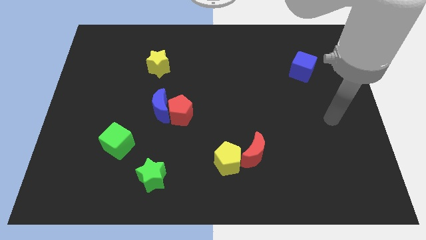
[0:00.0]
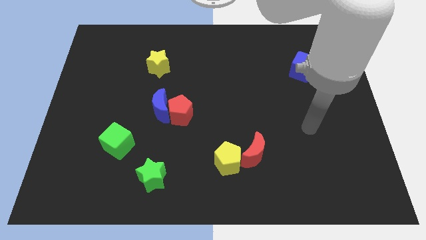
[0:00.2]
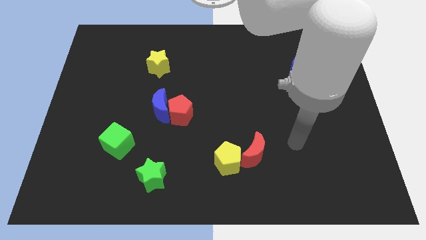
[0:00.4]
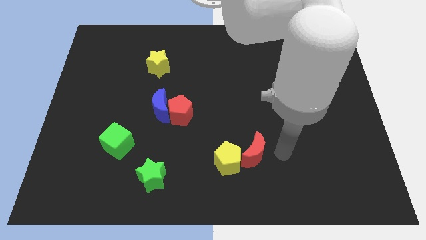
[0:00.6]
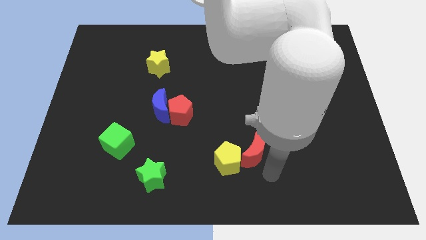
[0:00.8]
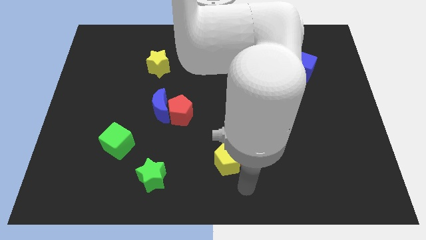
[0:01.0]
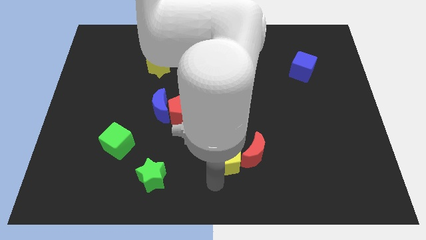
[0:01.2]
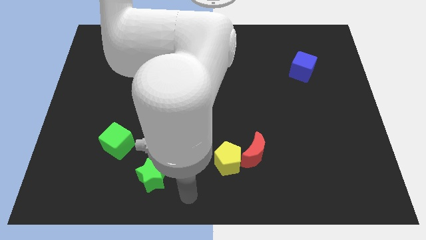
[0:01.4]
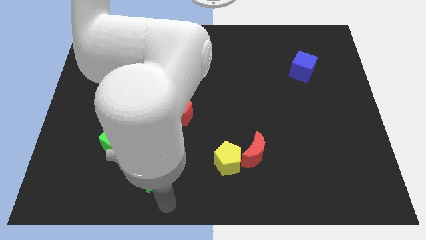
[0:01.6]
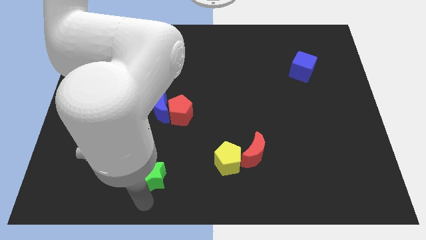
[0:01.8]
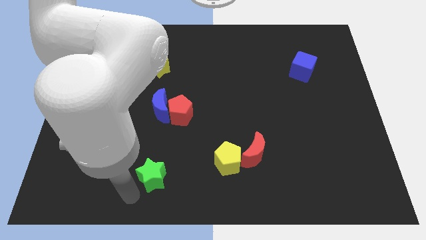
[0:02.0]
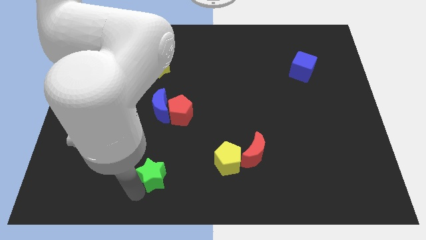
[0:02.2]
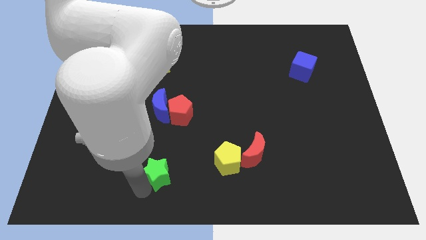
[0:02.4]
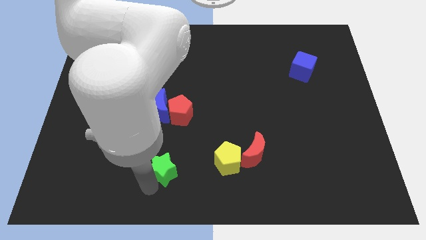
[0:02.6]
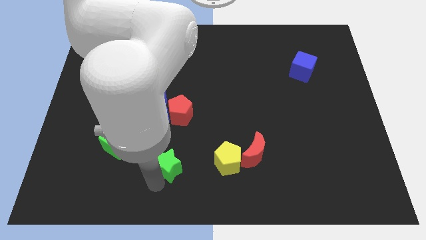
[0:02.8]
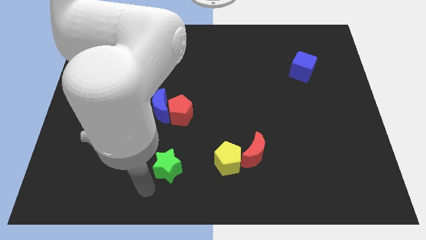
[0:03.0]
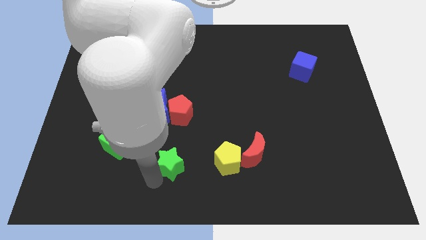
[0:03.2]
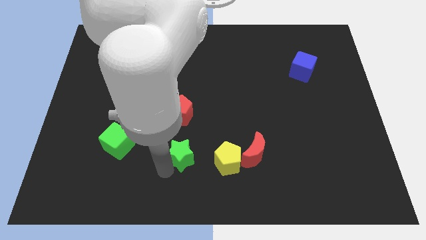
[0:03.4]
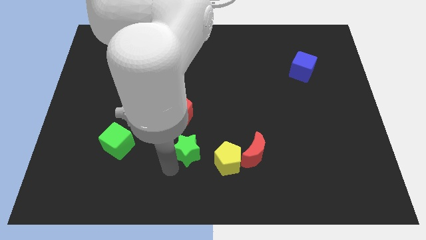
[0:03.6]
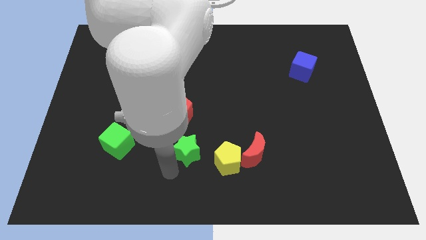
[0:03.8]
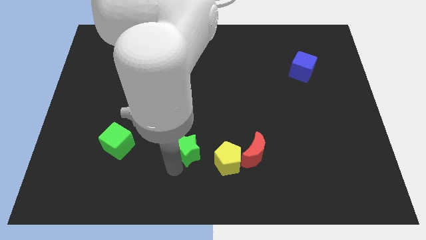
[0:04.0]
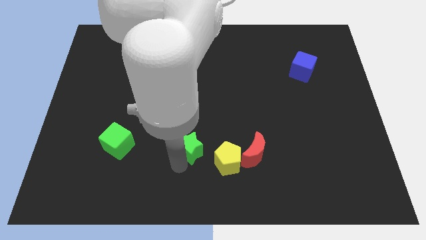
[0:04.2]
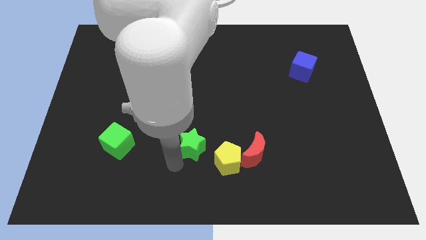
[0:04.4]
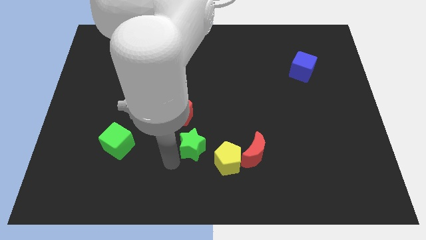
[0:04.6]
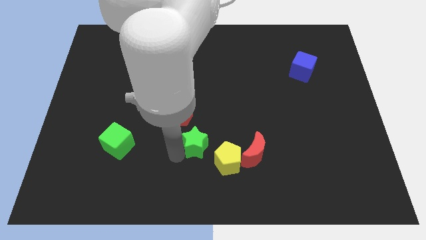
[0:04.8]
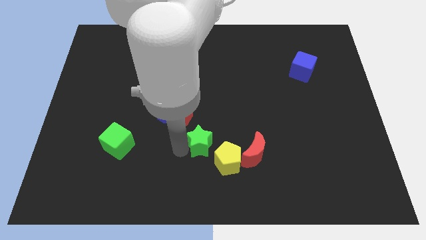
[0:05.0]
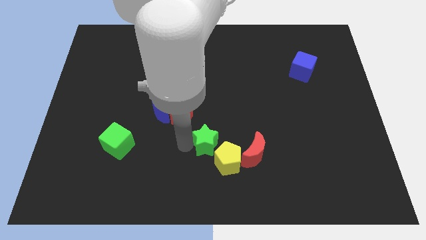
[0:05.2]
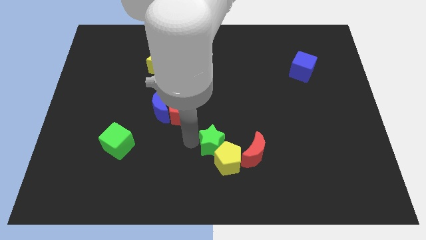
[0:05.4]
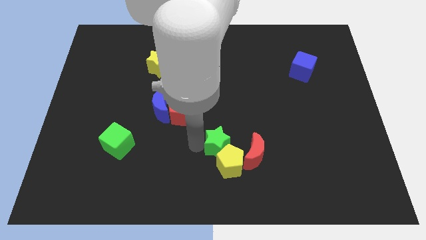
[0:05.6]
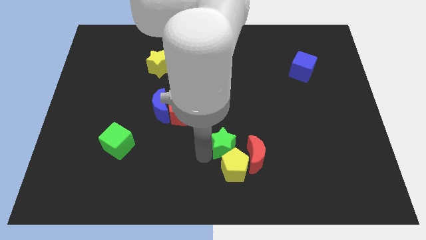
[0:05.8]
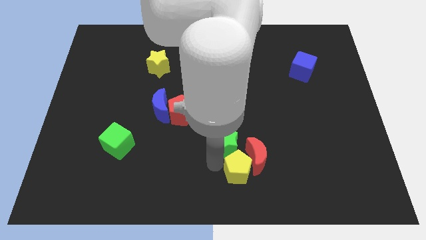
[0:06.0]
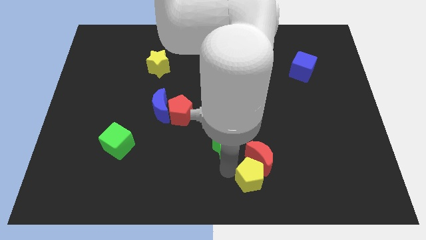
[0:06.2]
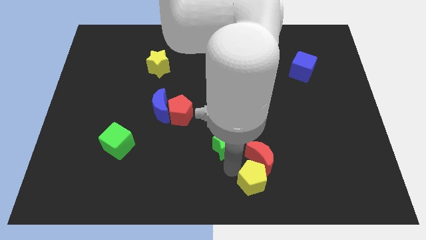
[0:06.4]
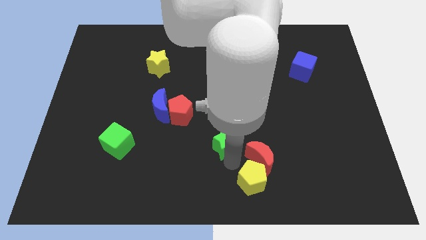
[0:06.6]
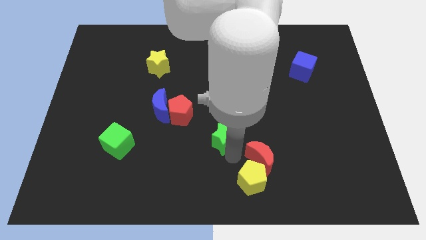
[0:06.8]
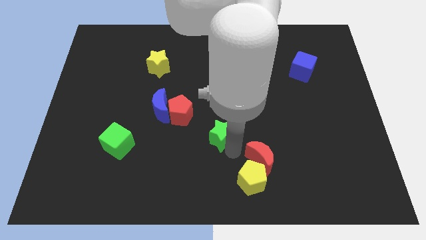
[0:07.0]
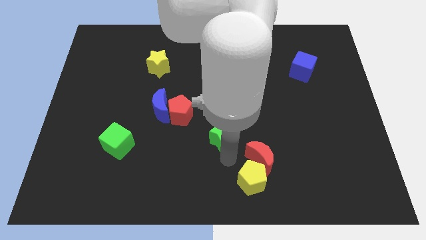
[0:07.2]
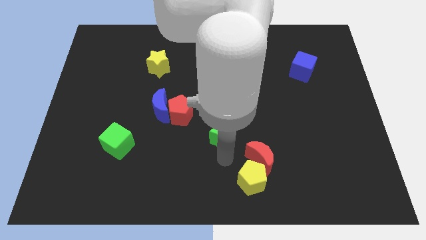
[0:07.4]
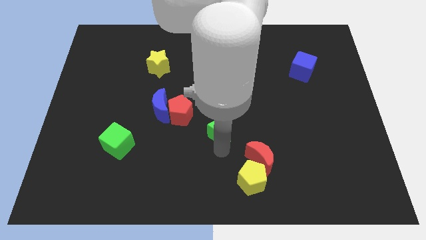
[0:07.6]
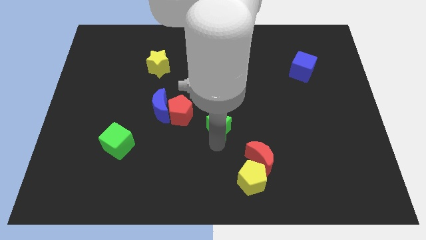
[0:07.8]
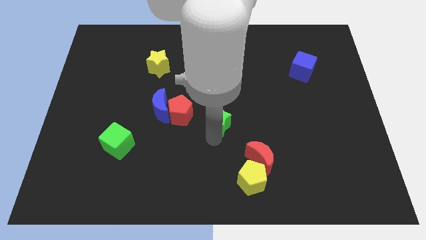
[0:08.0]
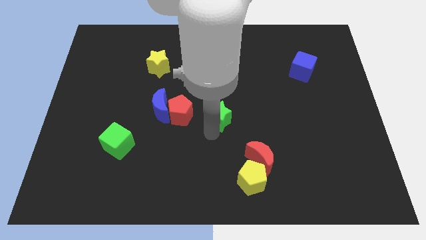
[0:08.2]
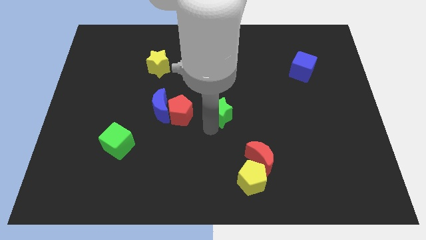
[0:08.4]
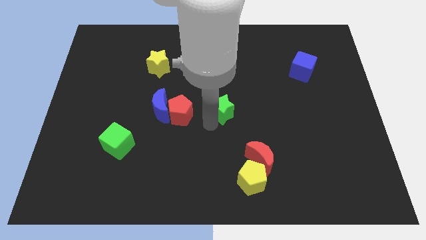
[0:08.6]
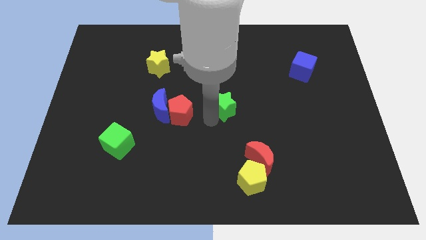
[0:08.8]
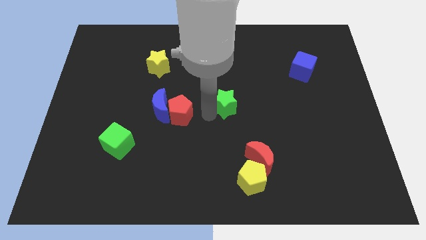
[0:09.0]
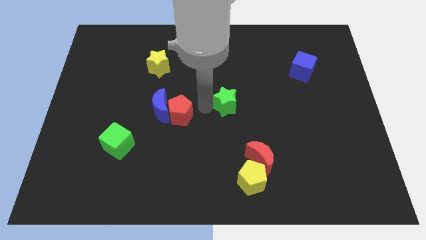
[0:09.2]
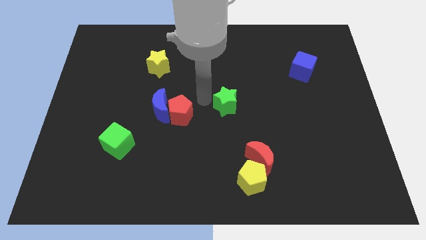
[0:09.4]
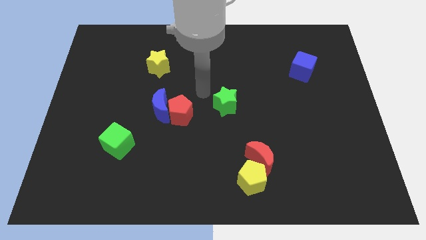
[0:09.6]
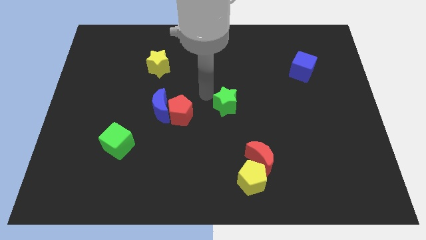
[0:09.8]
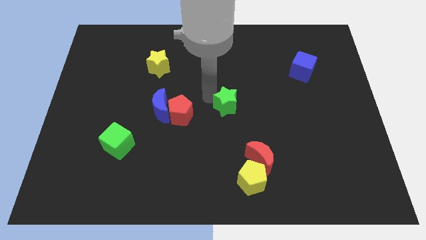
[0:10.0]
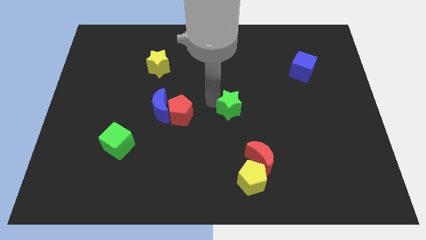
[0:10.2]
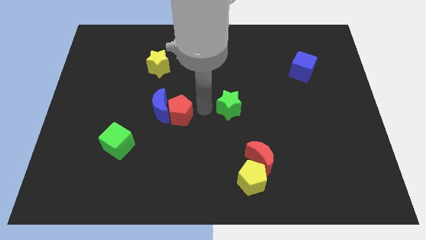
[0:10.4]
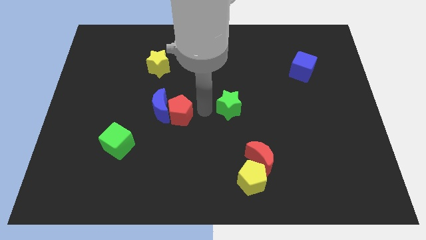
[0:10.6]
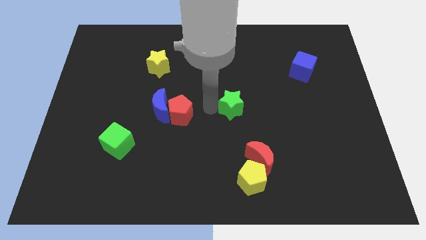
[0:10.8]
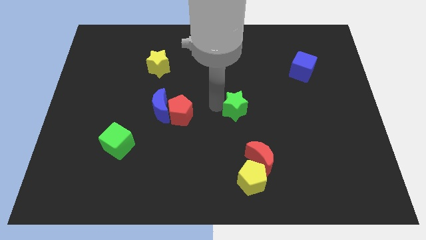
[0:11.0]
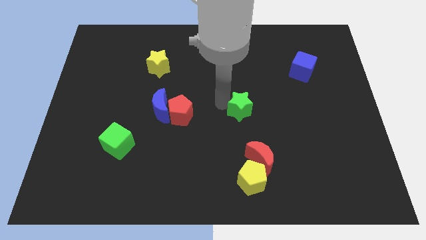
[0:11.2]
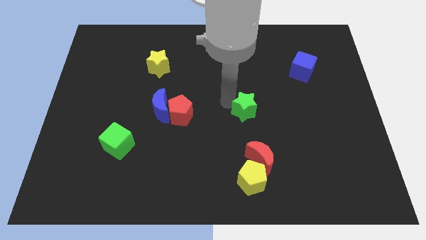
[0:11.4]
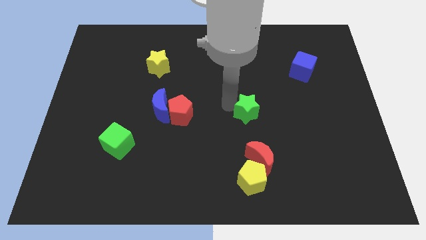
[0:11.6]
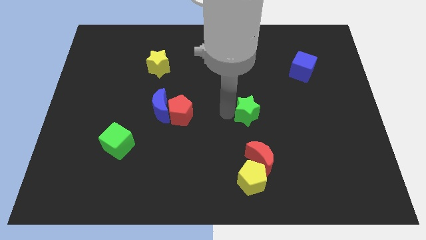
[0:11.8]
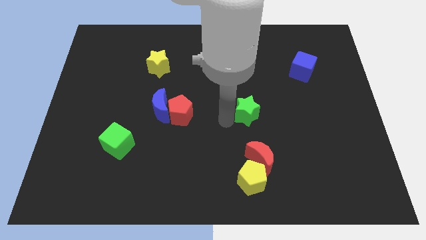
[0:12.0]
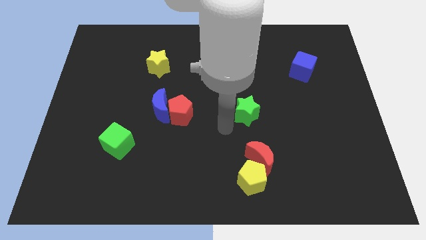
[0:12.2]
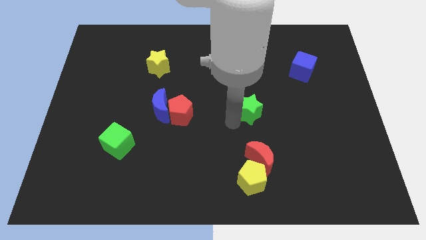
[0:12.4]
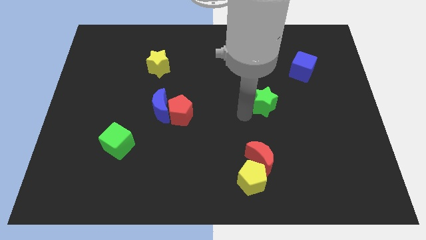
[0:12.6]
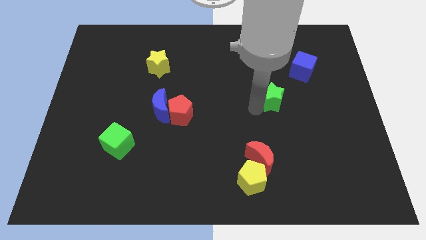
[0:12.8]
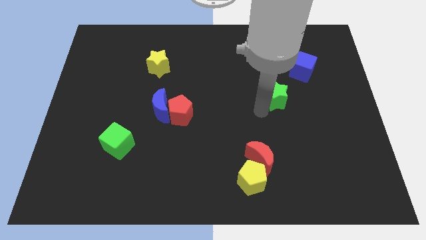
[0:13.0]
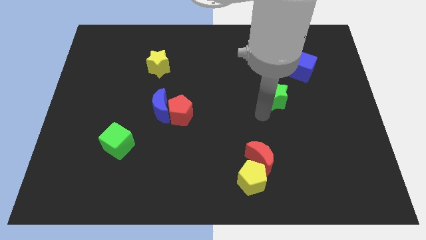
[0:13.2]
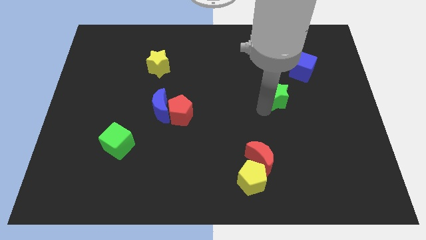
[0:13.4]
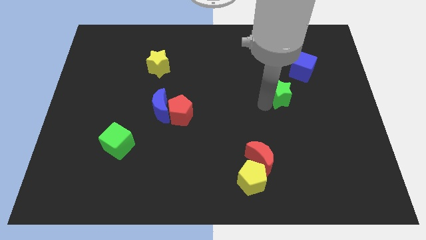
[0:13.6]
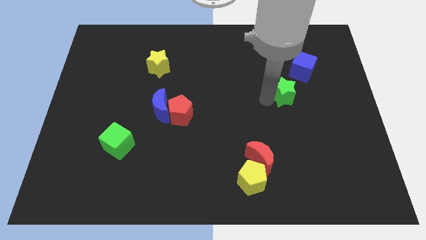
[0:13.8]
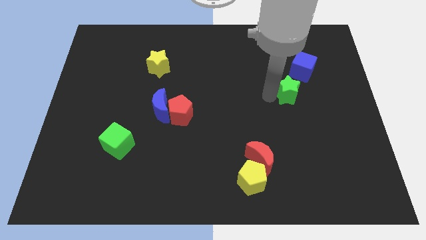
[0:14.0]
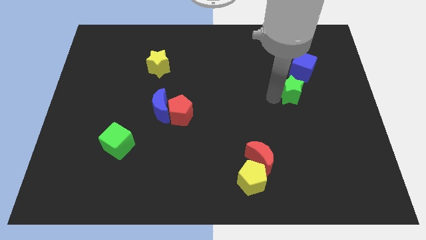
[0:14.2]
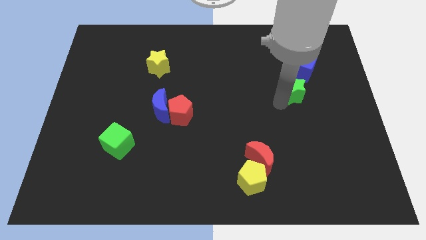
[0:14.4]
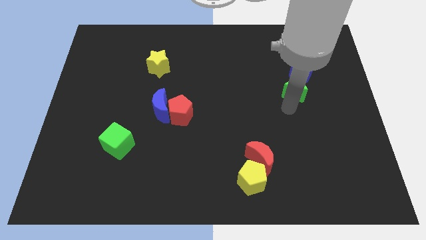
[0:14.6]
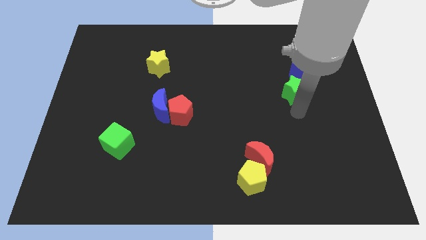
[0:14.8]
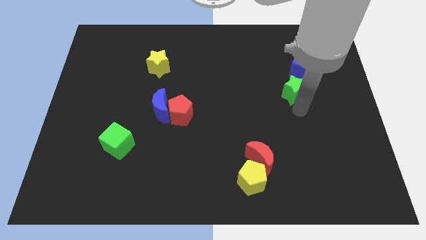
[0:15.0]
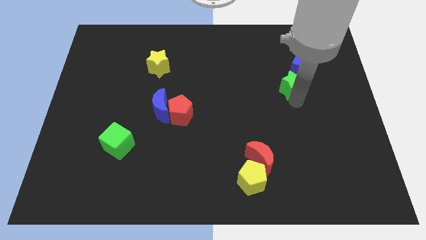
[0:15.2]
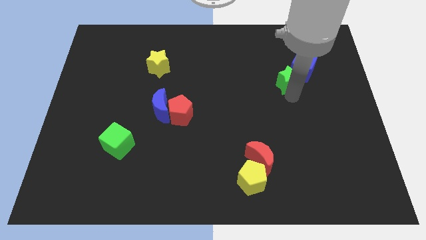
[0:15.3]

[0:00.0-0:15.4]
slide the green star next to the blue cube

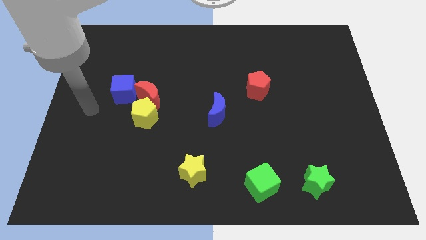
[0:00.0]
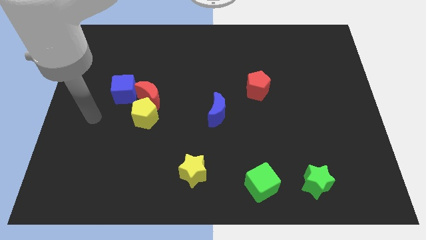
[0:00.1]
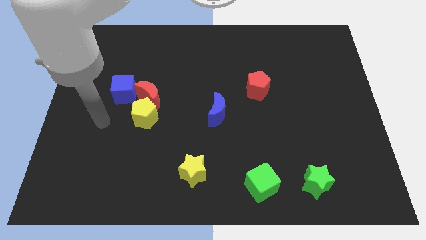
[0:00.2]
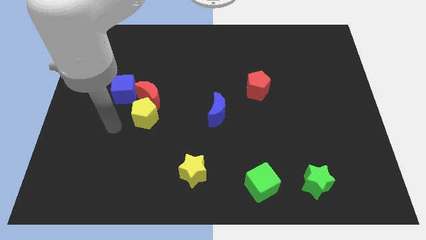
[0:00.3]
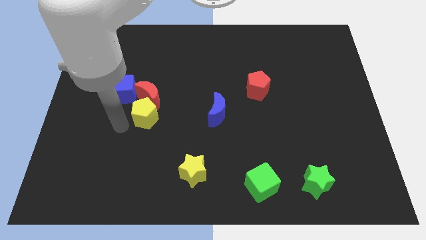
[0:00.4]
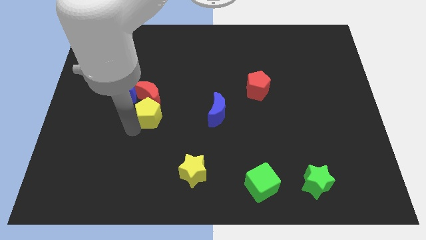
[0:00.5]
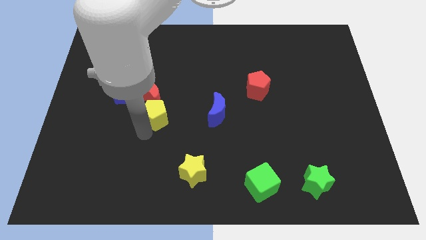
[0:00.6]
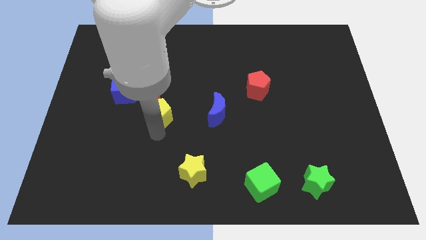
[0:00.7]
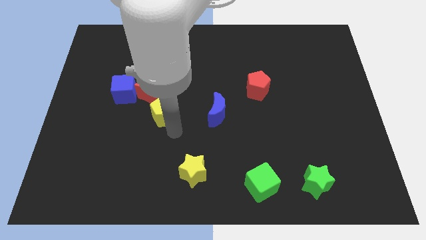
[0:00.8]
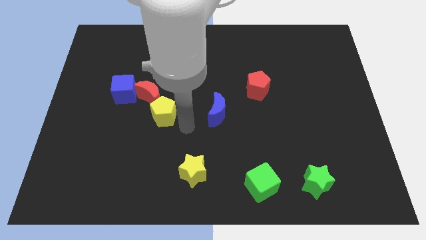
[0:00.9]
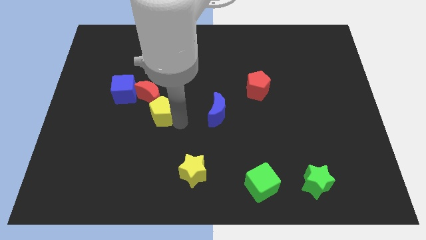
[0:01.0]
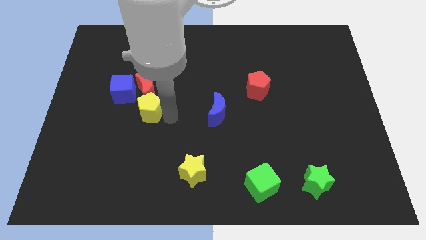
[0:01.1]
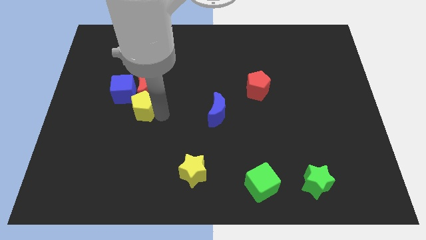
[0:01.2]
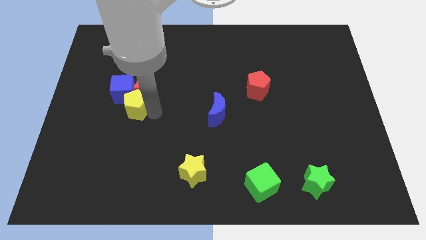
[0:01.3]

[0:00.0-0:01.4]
push the yellow pentagon to the blue cube
